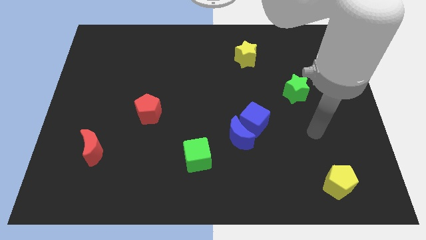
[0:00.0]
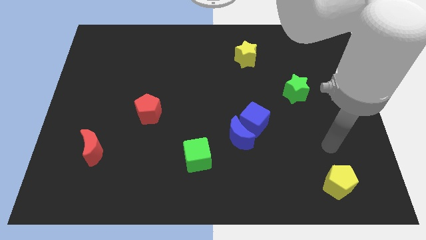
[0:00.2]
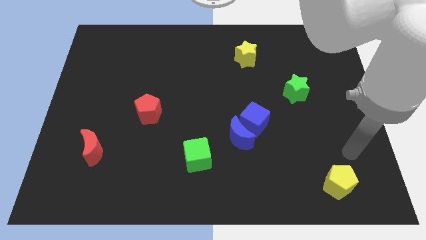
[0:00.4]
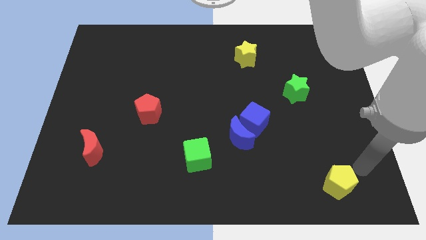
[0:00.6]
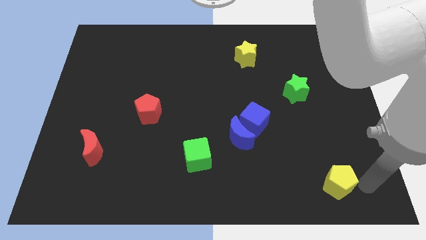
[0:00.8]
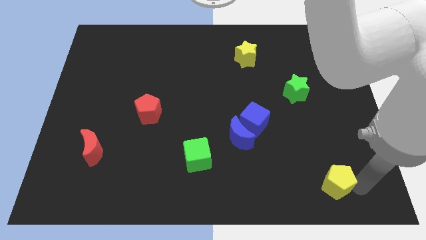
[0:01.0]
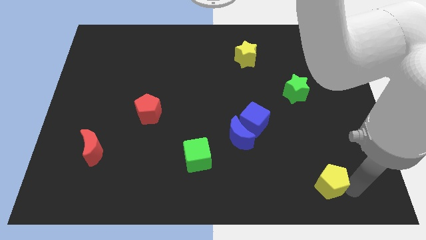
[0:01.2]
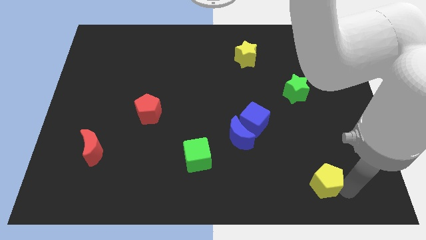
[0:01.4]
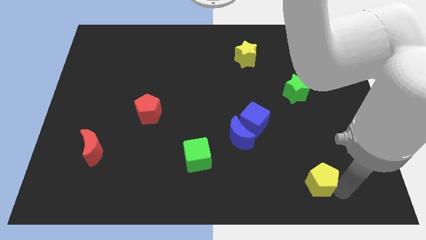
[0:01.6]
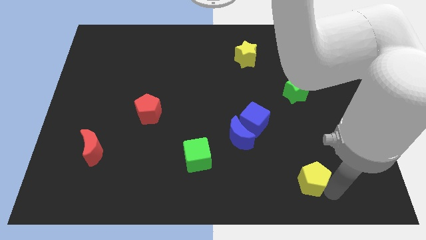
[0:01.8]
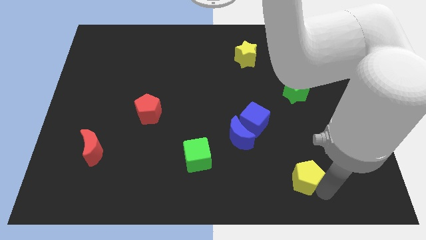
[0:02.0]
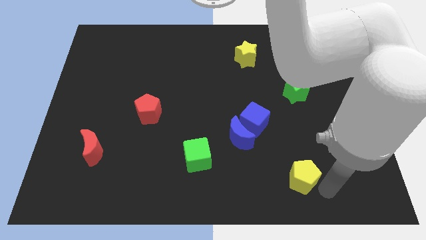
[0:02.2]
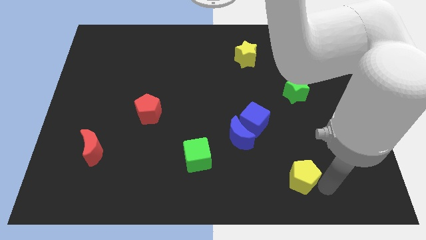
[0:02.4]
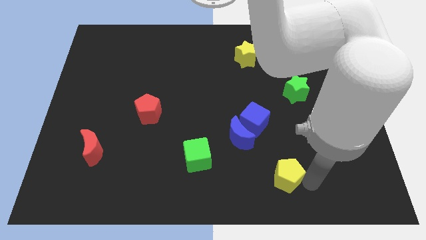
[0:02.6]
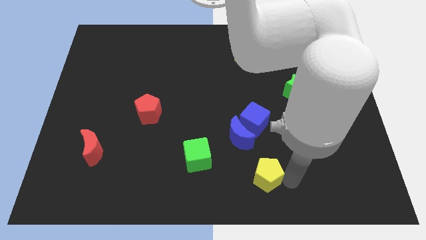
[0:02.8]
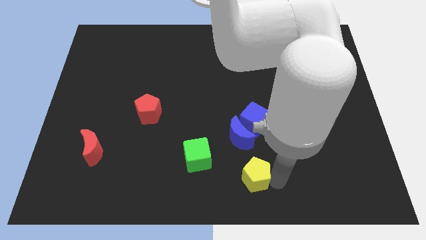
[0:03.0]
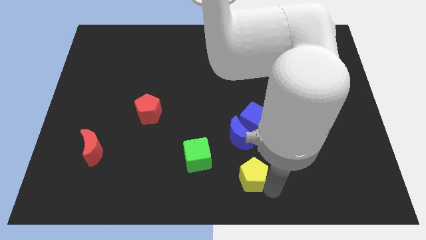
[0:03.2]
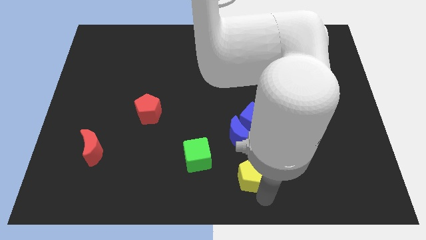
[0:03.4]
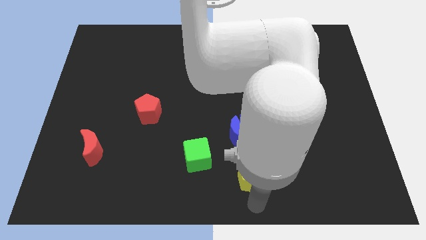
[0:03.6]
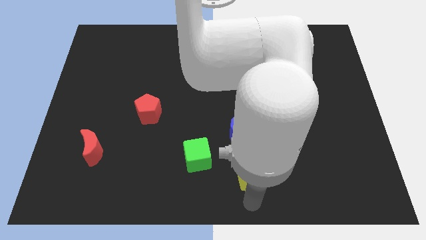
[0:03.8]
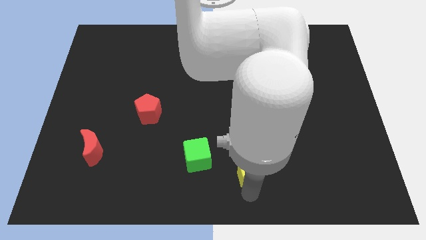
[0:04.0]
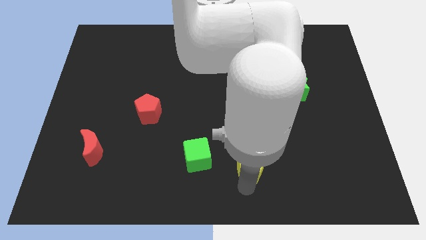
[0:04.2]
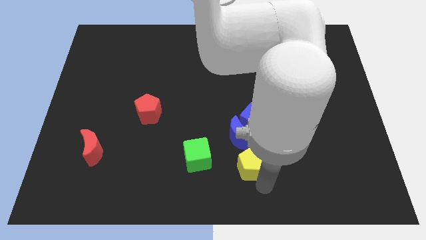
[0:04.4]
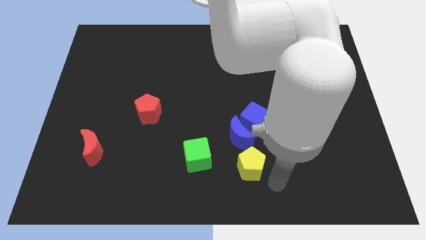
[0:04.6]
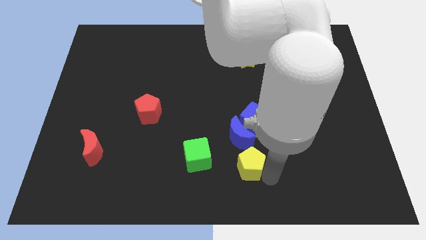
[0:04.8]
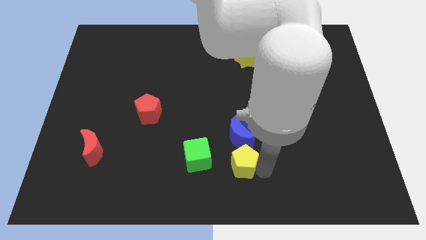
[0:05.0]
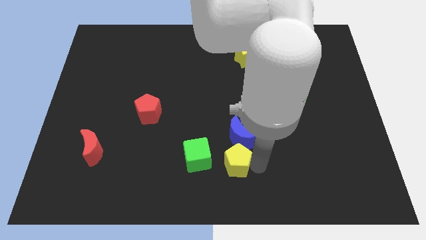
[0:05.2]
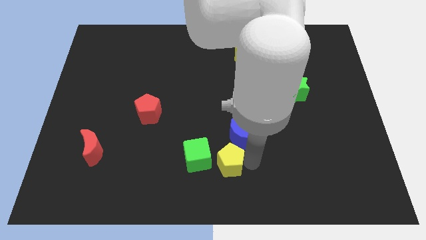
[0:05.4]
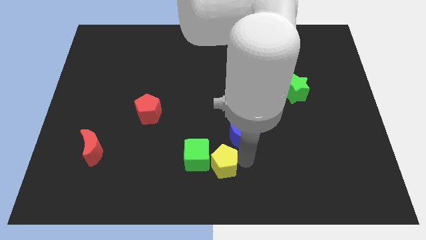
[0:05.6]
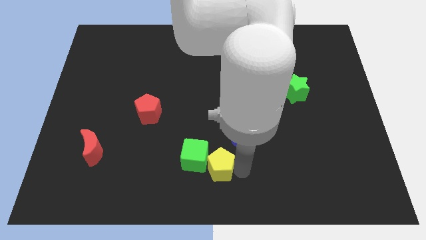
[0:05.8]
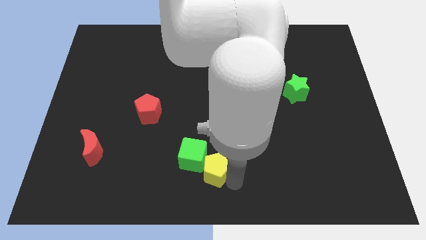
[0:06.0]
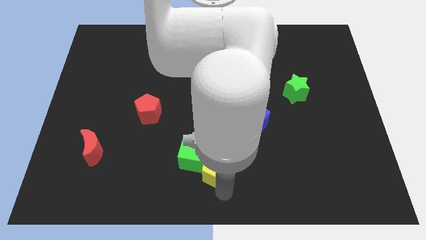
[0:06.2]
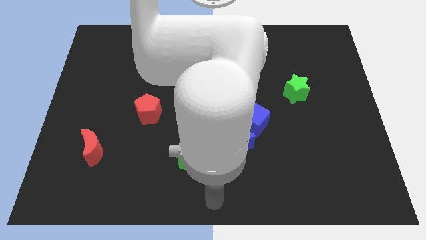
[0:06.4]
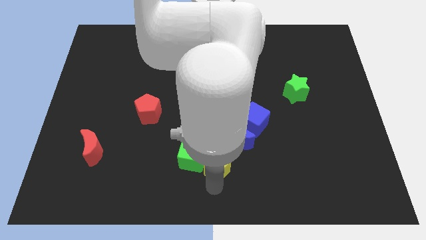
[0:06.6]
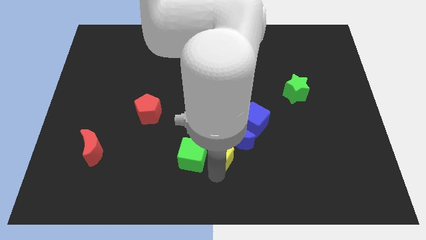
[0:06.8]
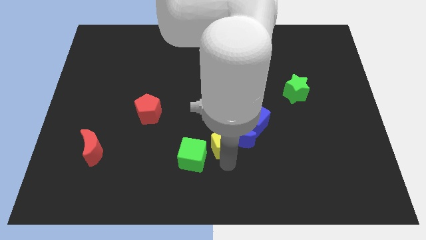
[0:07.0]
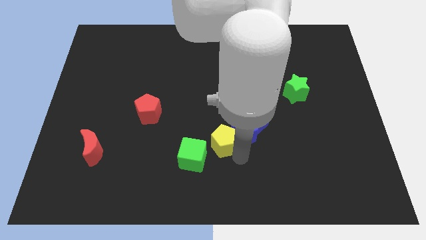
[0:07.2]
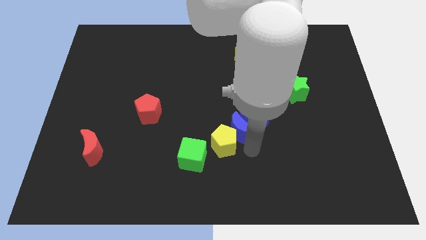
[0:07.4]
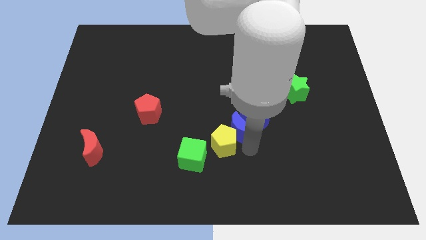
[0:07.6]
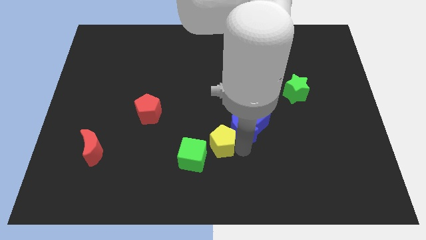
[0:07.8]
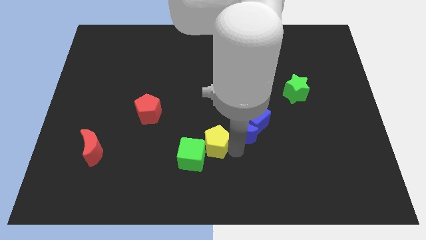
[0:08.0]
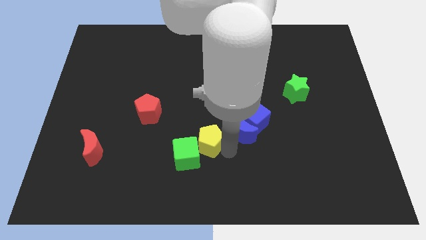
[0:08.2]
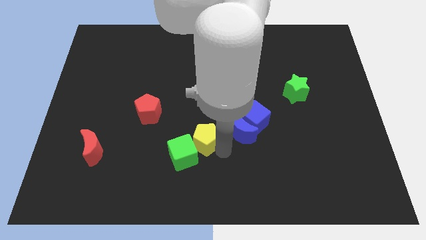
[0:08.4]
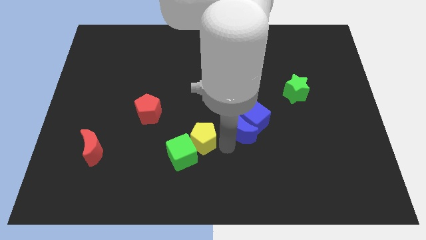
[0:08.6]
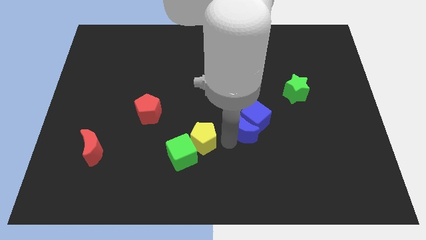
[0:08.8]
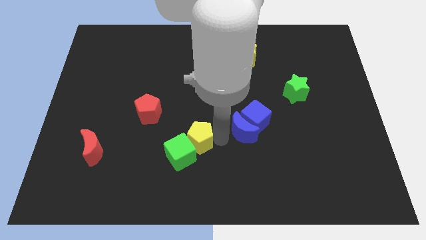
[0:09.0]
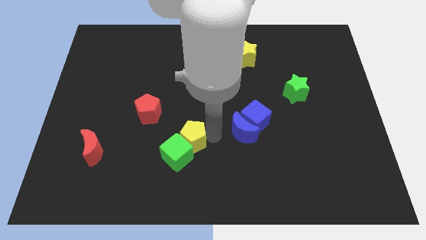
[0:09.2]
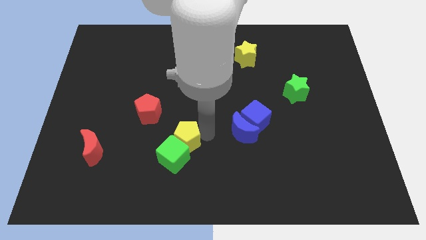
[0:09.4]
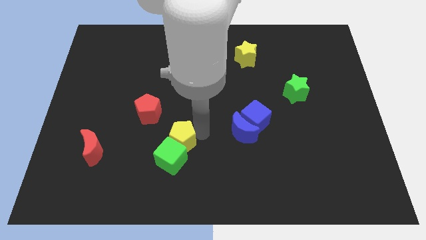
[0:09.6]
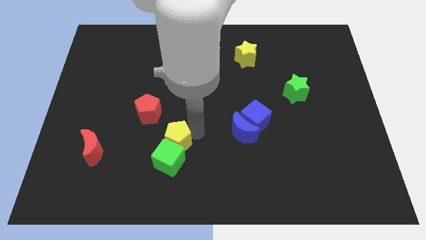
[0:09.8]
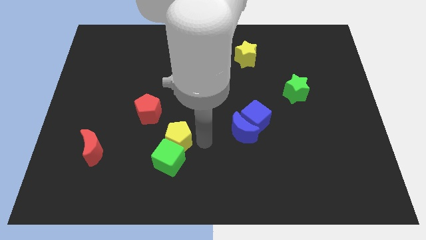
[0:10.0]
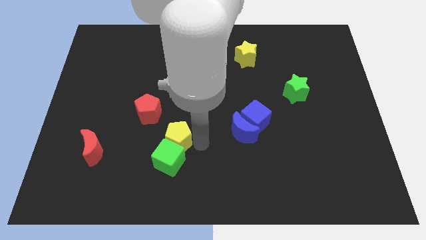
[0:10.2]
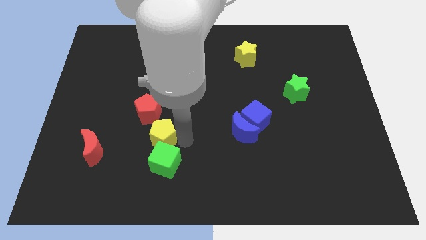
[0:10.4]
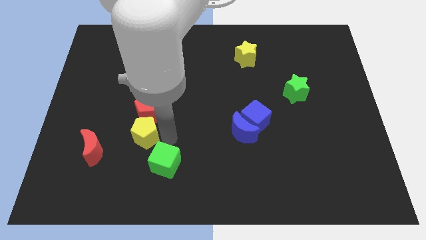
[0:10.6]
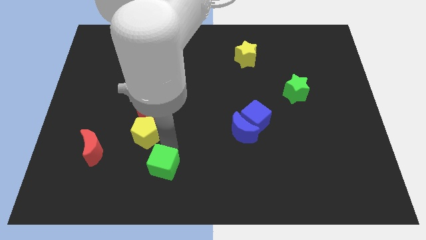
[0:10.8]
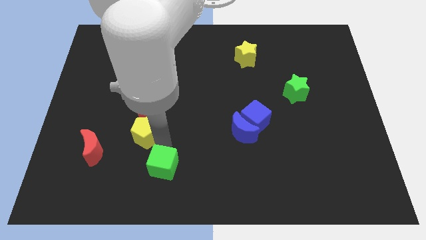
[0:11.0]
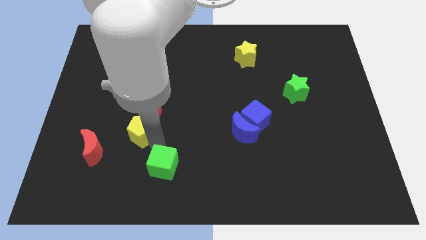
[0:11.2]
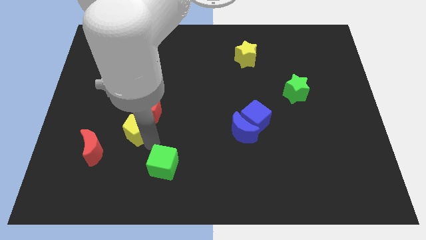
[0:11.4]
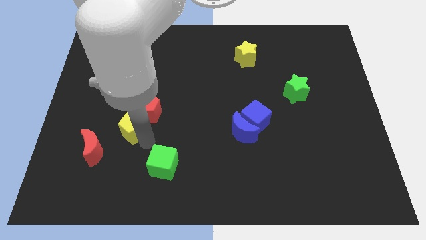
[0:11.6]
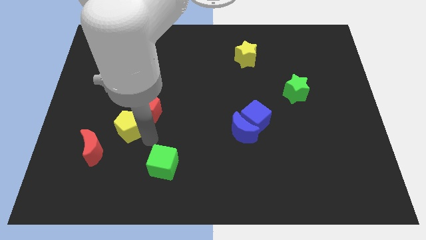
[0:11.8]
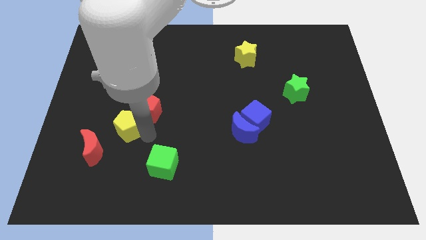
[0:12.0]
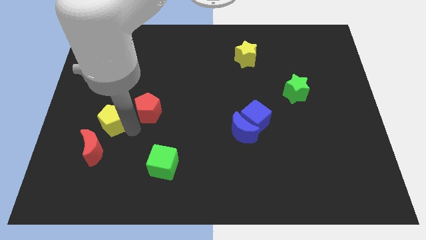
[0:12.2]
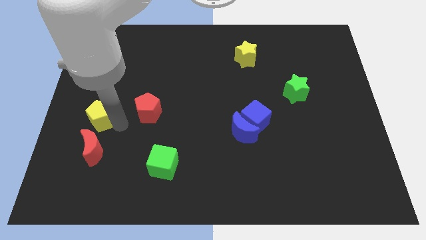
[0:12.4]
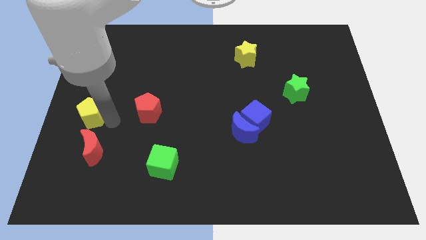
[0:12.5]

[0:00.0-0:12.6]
put the yellow pentagon to the left side
